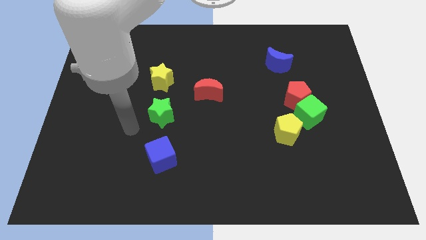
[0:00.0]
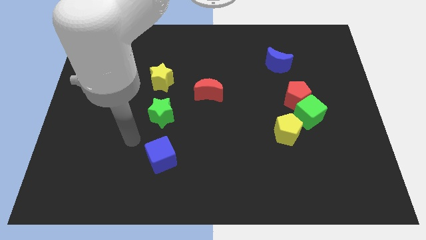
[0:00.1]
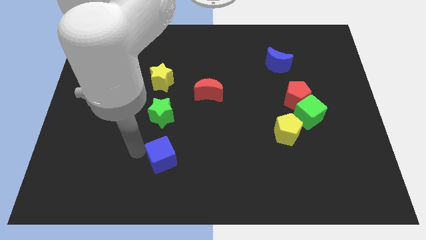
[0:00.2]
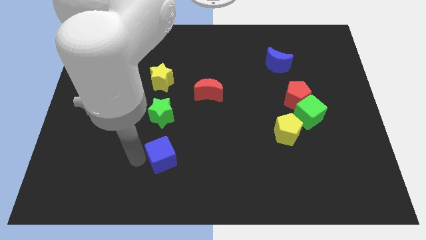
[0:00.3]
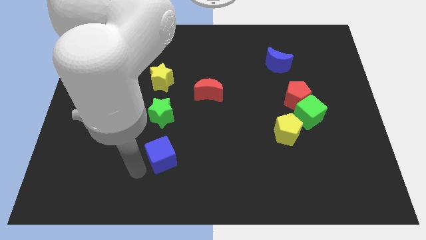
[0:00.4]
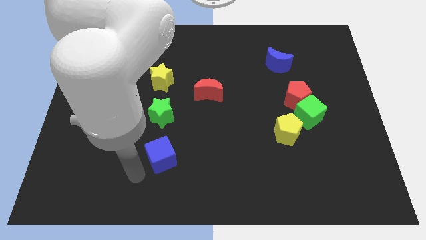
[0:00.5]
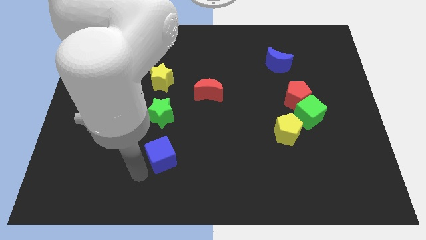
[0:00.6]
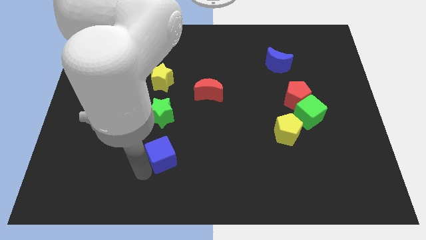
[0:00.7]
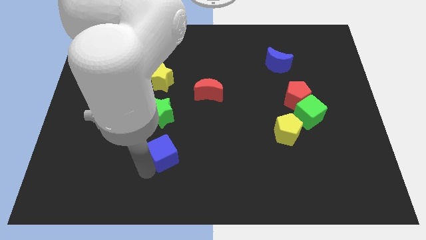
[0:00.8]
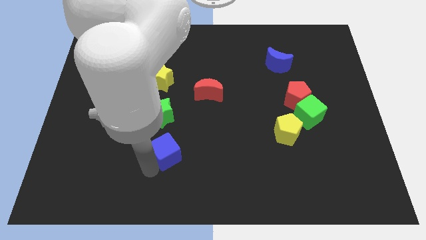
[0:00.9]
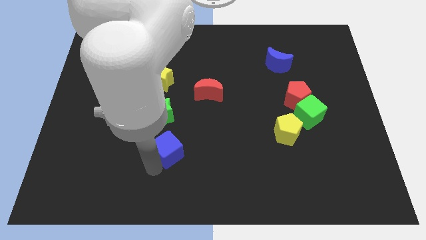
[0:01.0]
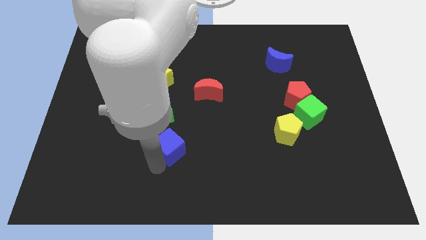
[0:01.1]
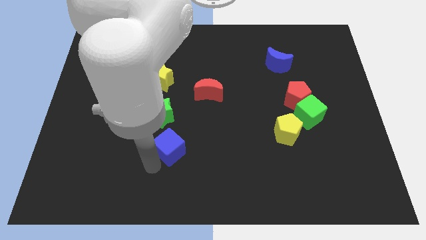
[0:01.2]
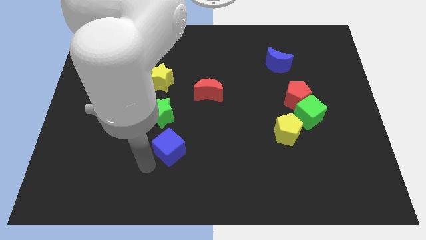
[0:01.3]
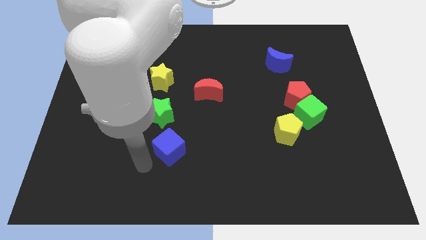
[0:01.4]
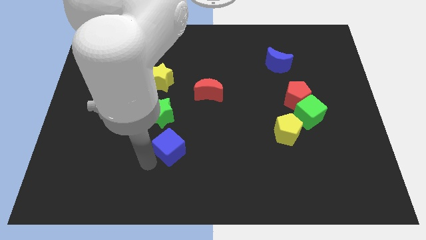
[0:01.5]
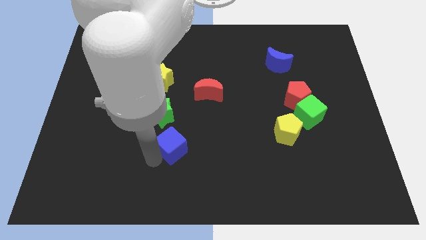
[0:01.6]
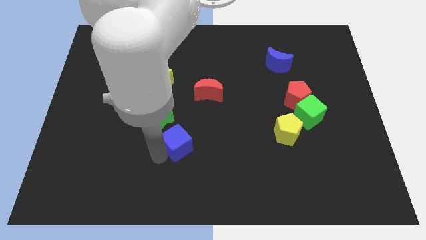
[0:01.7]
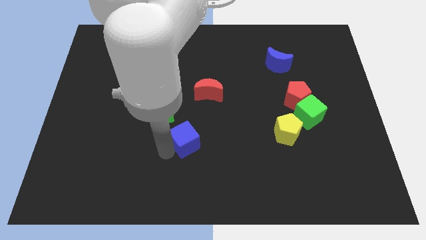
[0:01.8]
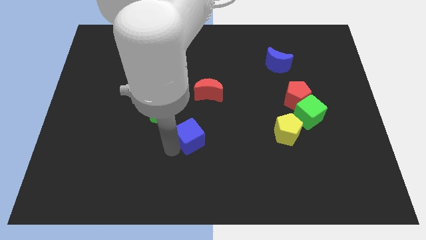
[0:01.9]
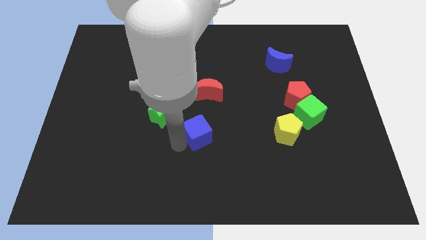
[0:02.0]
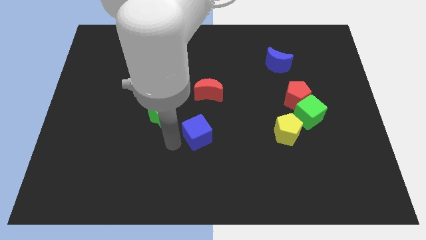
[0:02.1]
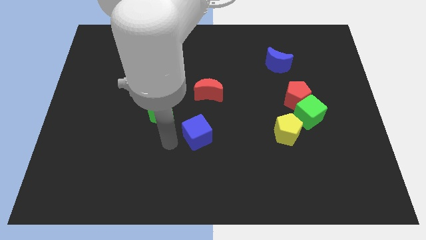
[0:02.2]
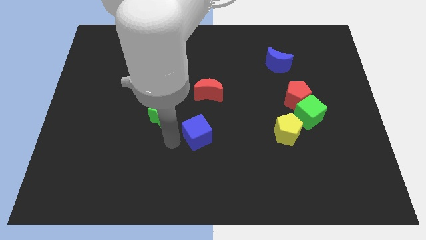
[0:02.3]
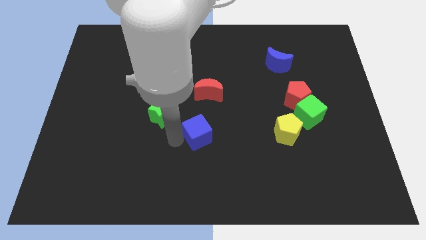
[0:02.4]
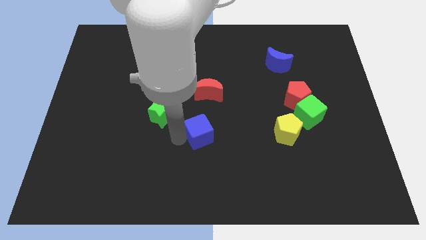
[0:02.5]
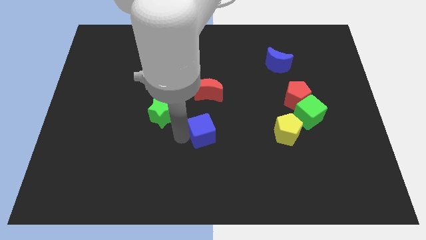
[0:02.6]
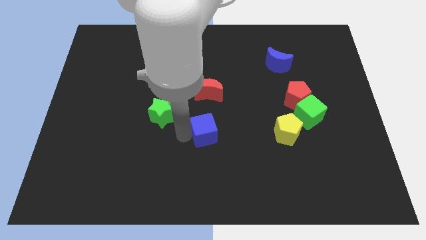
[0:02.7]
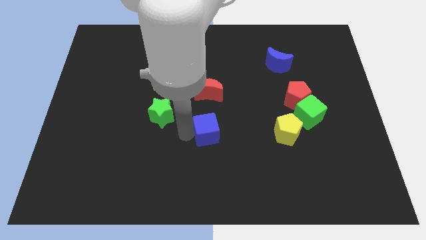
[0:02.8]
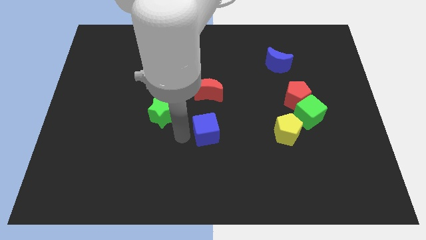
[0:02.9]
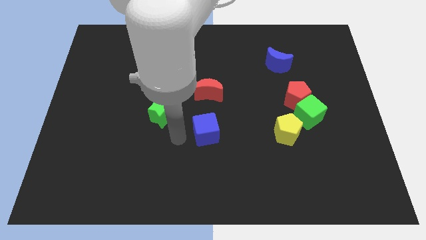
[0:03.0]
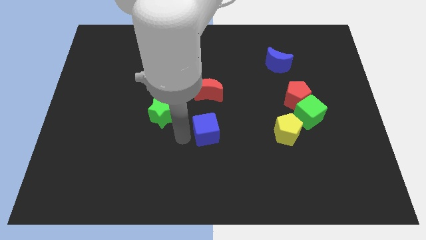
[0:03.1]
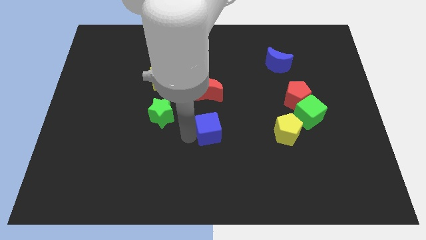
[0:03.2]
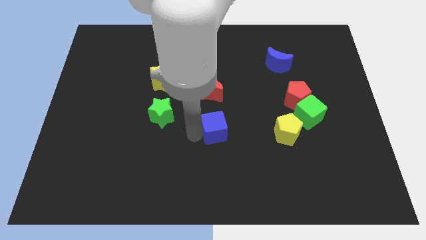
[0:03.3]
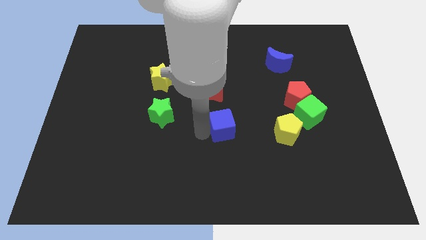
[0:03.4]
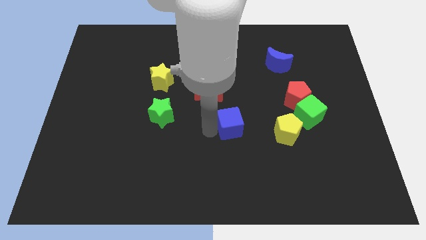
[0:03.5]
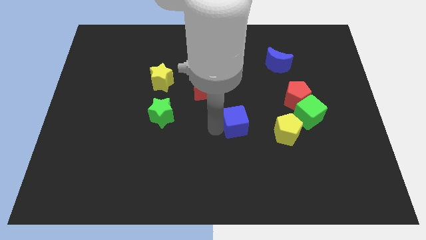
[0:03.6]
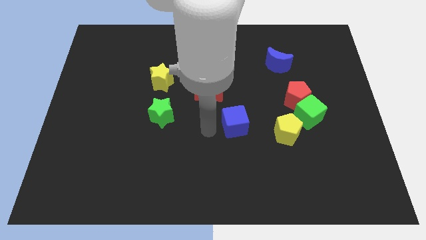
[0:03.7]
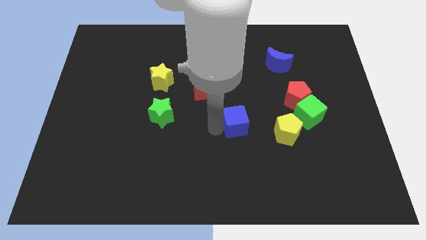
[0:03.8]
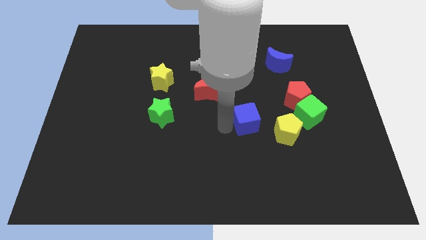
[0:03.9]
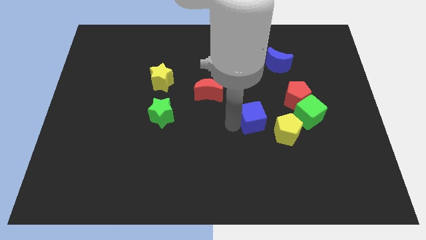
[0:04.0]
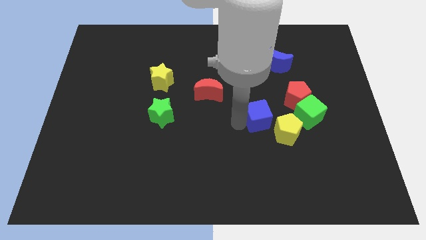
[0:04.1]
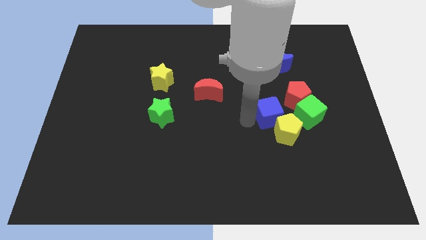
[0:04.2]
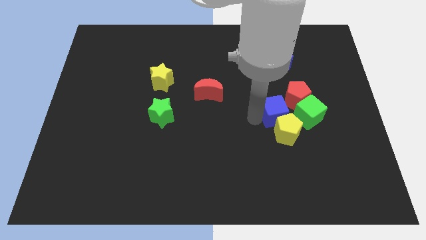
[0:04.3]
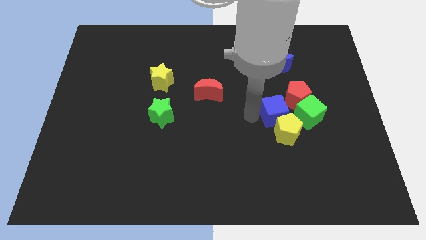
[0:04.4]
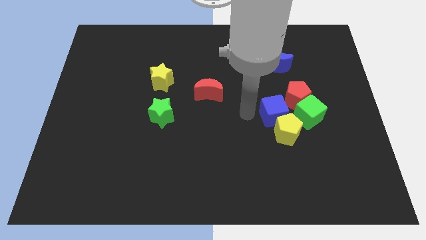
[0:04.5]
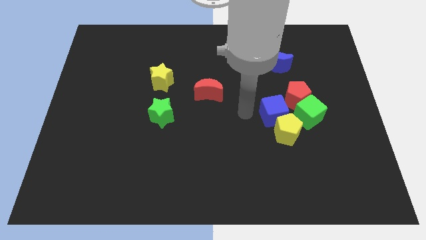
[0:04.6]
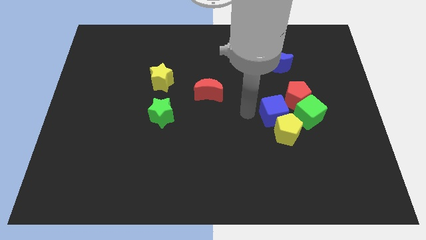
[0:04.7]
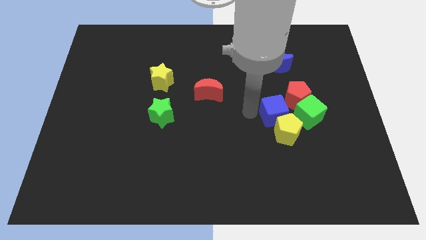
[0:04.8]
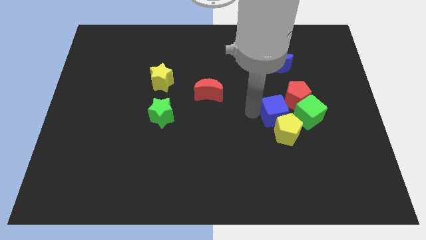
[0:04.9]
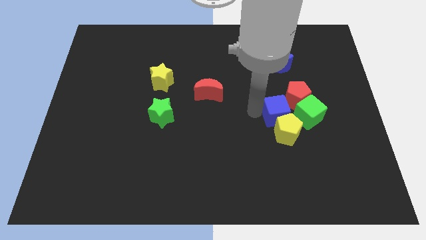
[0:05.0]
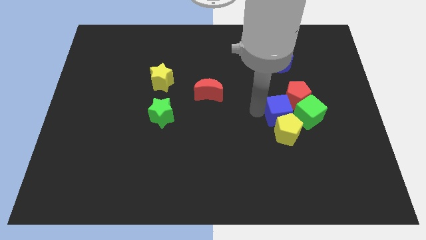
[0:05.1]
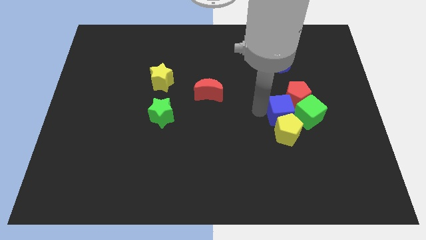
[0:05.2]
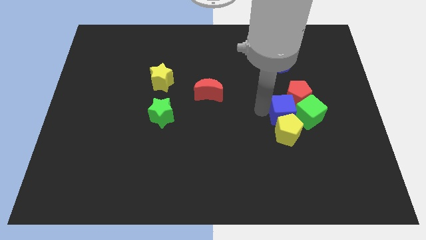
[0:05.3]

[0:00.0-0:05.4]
slide the blue cube next to the green cube

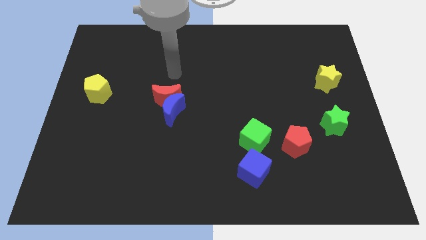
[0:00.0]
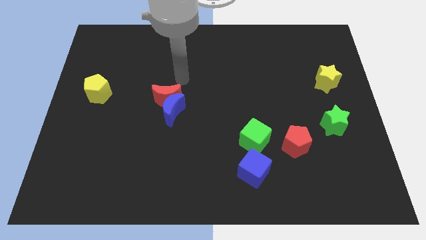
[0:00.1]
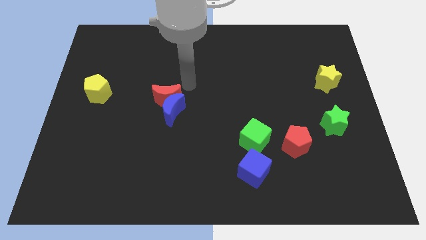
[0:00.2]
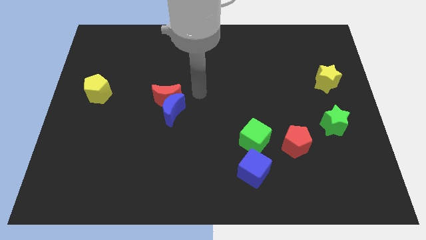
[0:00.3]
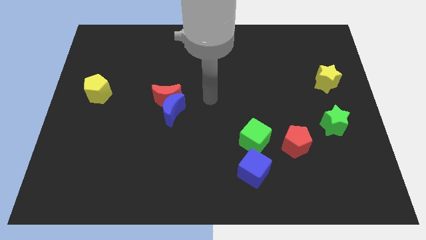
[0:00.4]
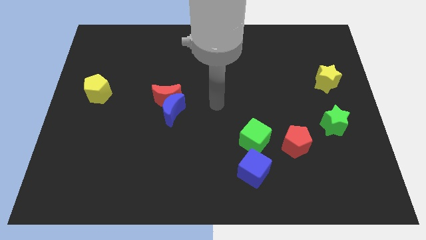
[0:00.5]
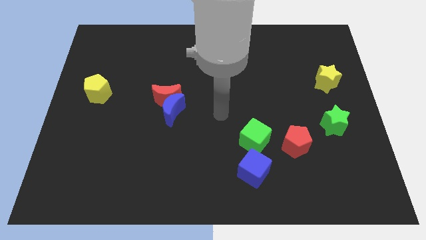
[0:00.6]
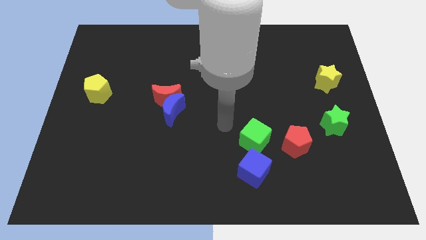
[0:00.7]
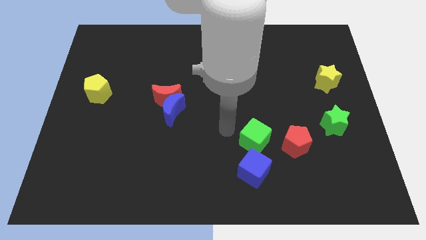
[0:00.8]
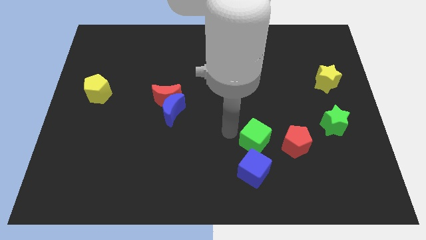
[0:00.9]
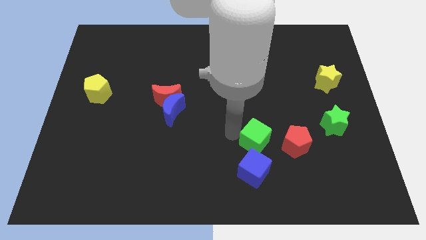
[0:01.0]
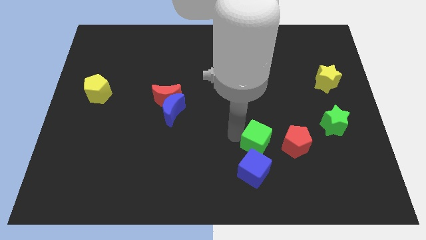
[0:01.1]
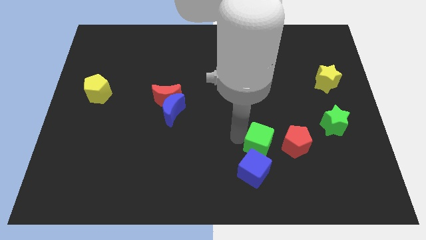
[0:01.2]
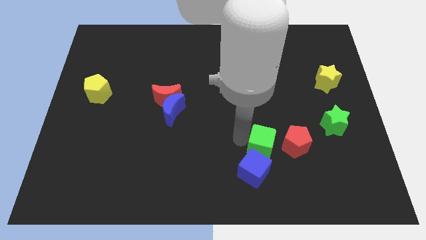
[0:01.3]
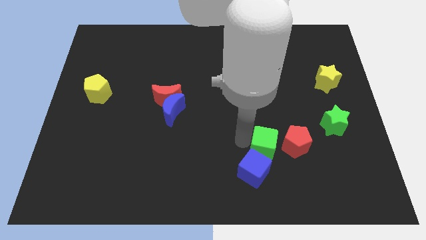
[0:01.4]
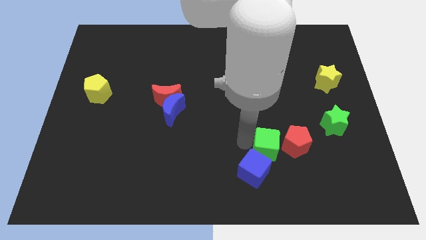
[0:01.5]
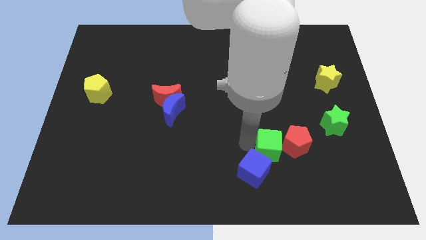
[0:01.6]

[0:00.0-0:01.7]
put the green cube close to the red pentagon
